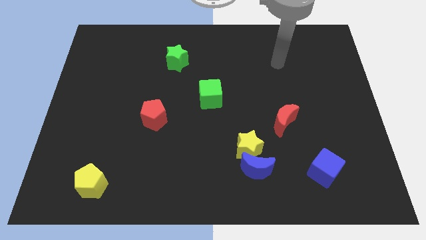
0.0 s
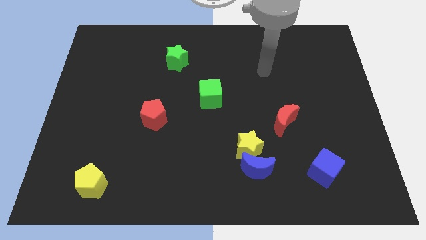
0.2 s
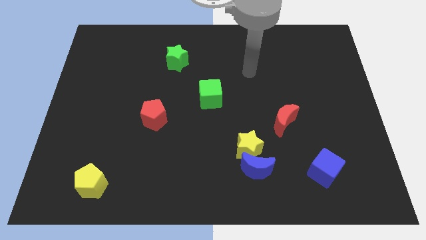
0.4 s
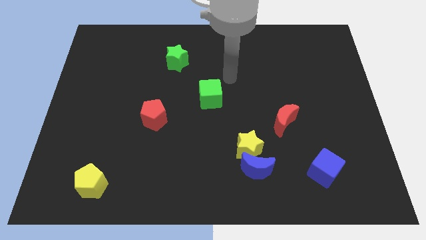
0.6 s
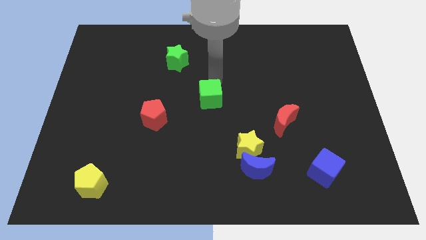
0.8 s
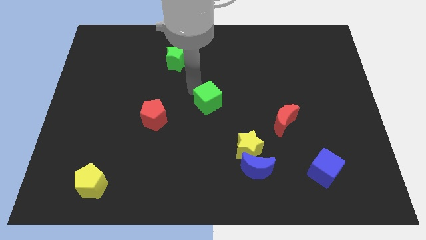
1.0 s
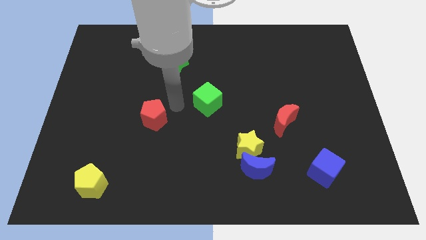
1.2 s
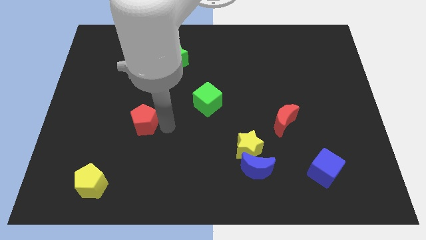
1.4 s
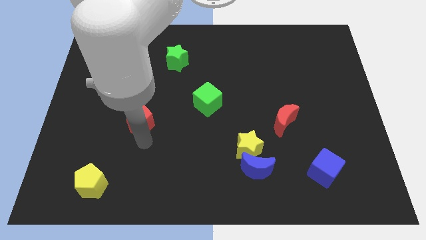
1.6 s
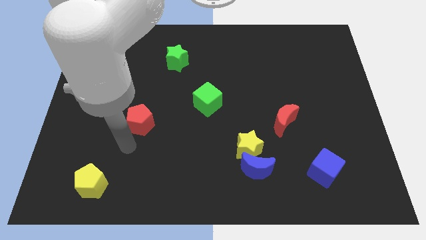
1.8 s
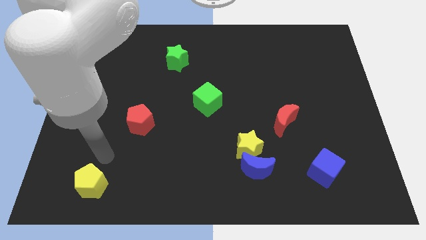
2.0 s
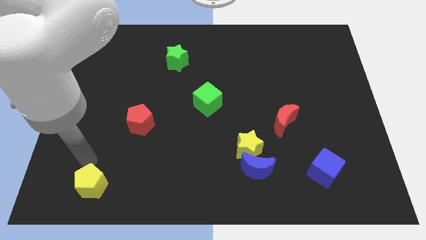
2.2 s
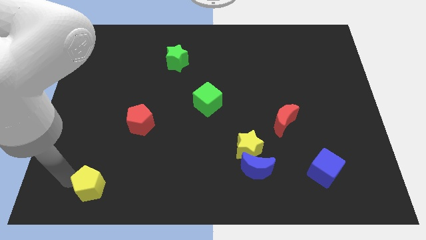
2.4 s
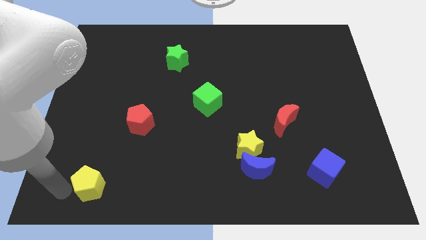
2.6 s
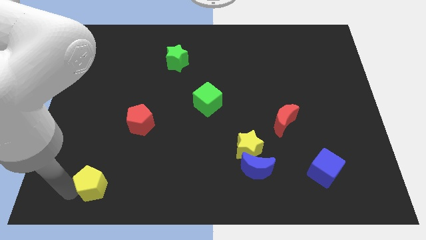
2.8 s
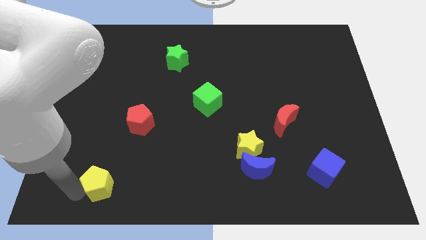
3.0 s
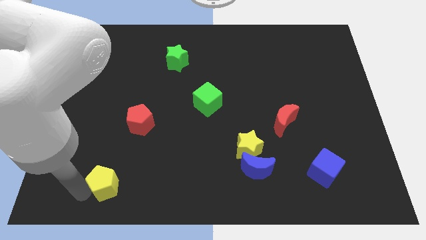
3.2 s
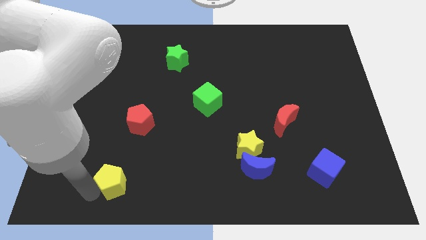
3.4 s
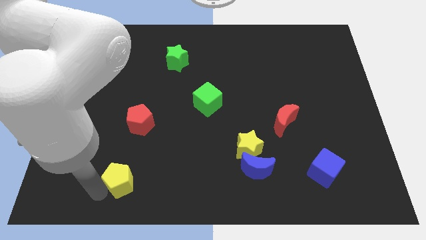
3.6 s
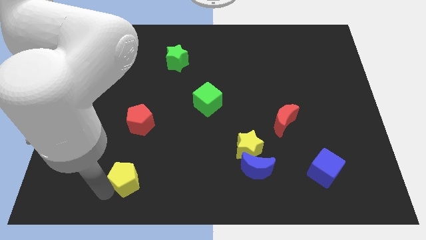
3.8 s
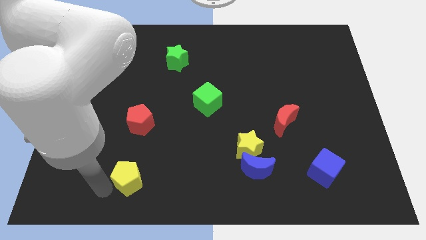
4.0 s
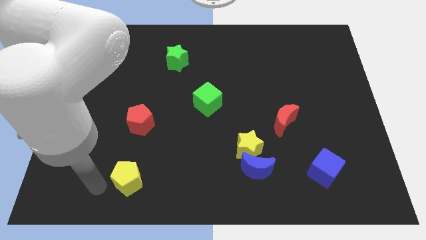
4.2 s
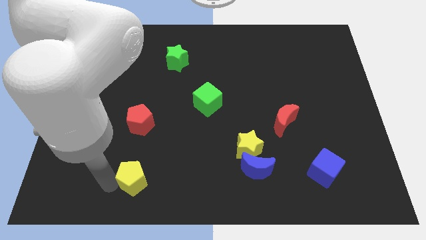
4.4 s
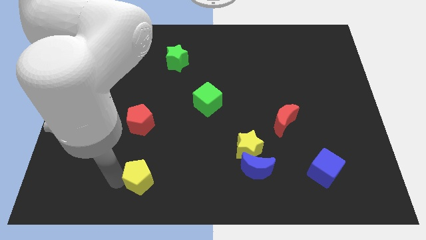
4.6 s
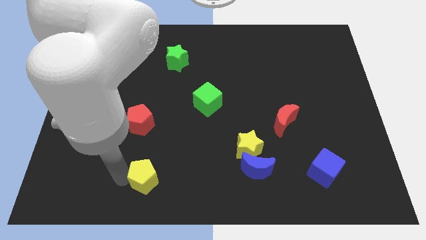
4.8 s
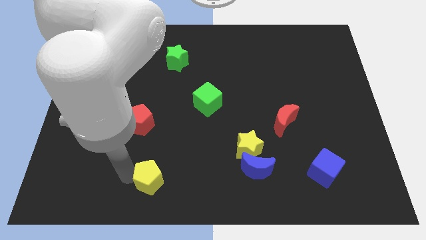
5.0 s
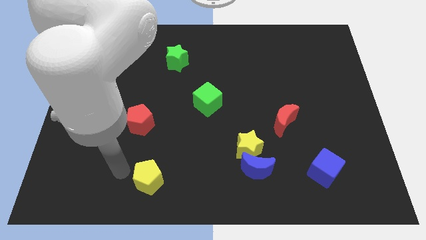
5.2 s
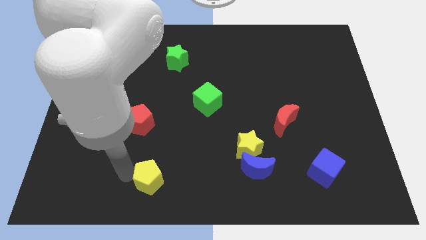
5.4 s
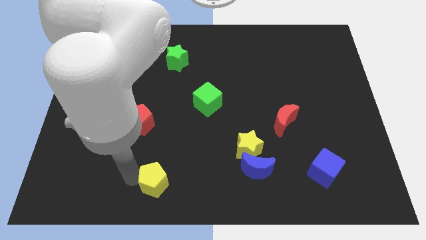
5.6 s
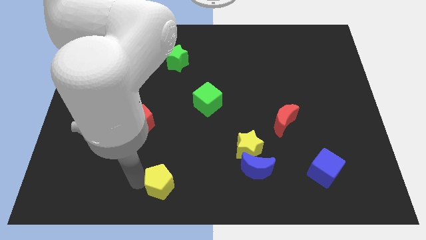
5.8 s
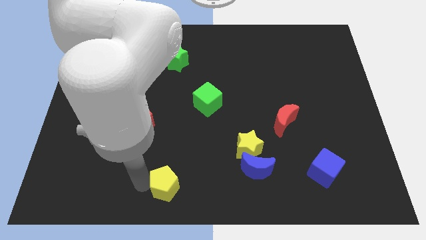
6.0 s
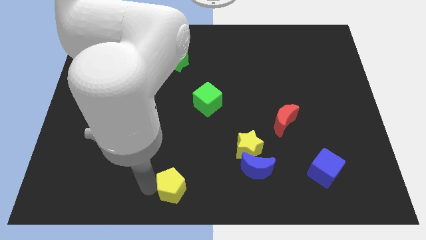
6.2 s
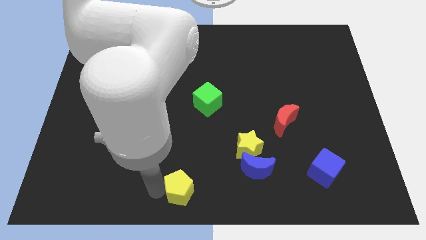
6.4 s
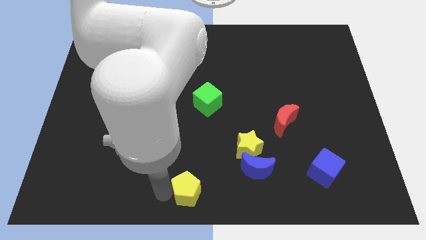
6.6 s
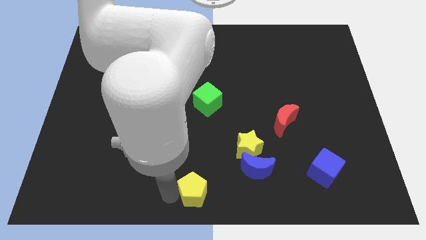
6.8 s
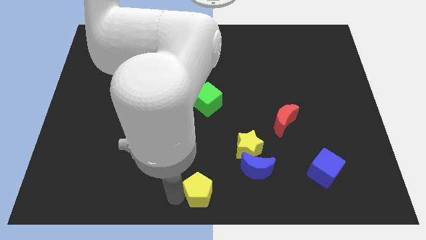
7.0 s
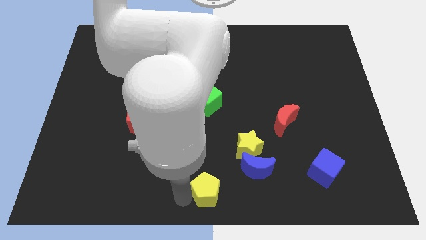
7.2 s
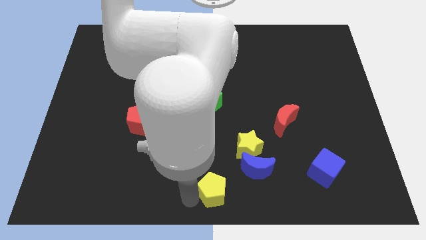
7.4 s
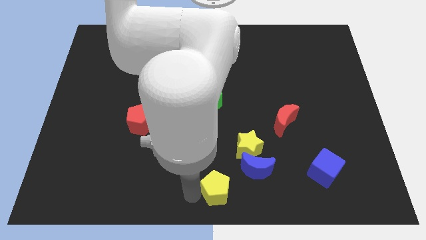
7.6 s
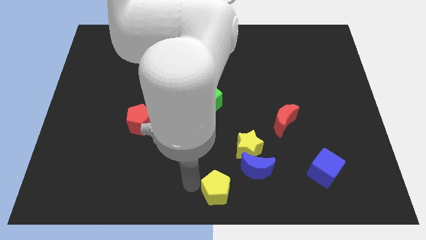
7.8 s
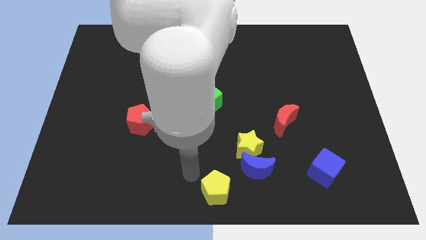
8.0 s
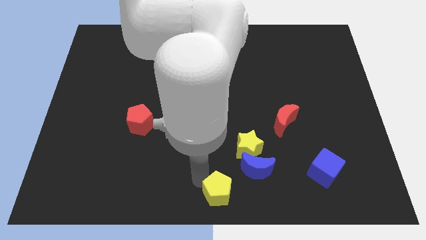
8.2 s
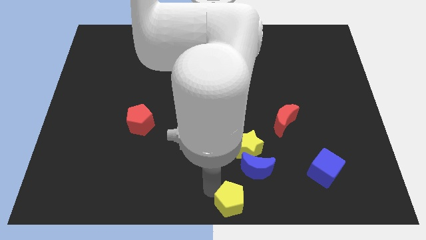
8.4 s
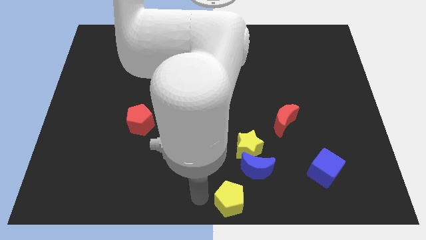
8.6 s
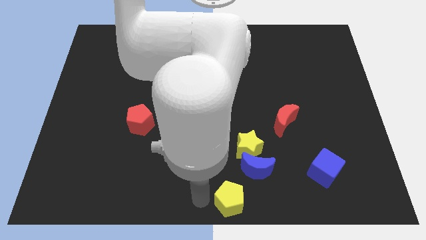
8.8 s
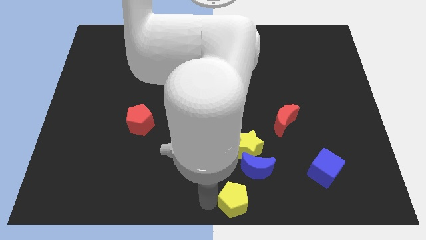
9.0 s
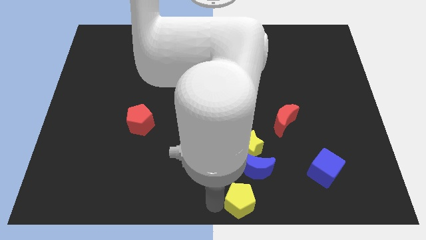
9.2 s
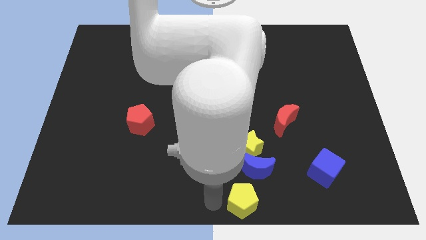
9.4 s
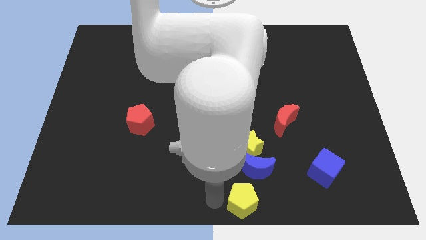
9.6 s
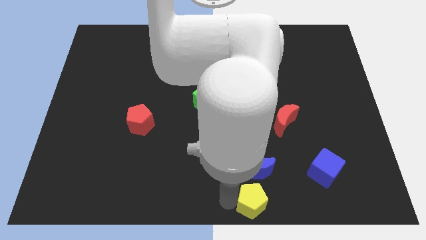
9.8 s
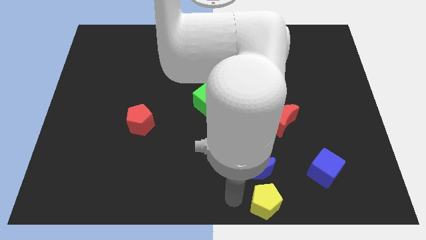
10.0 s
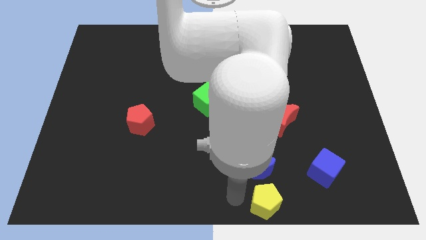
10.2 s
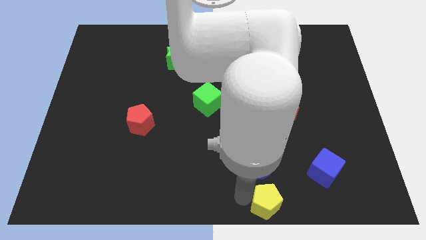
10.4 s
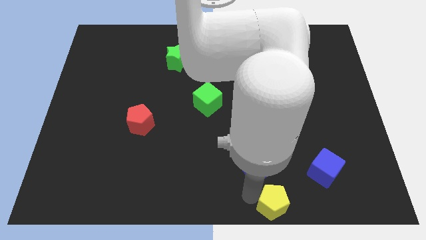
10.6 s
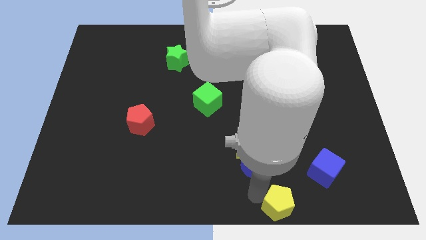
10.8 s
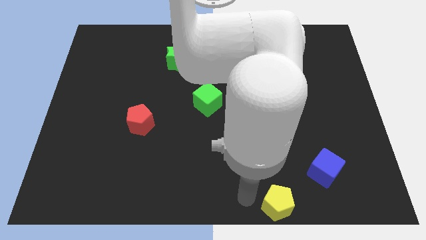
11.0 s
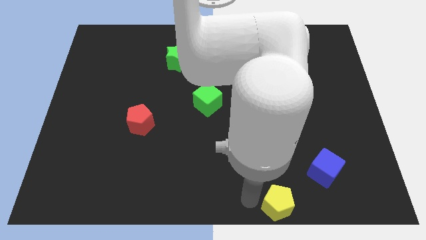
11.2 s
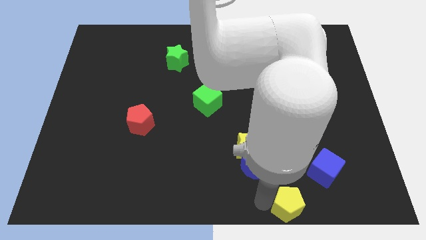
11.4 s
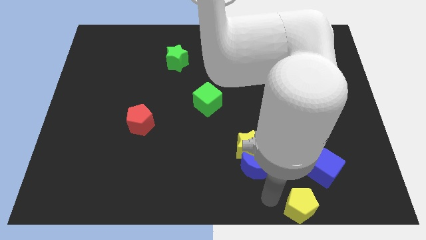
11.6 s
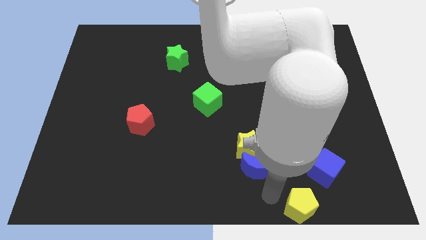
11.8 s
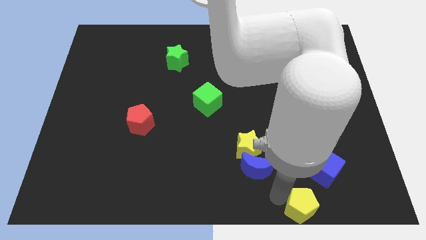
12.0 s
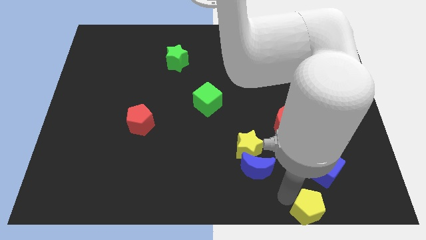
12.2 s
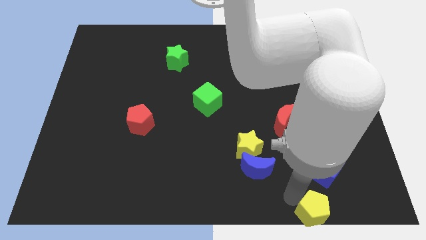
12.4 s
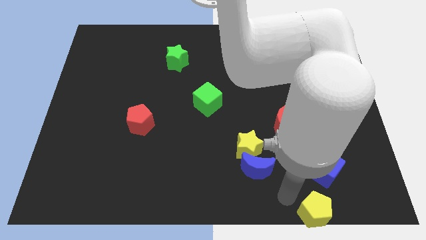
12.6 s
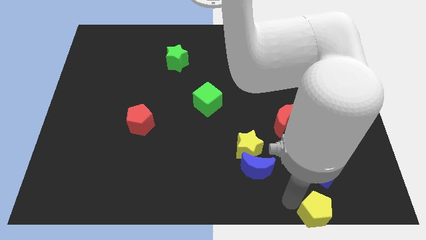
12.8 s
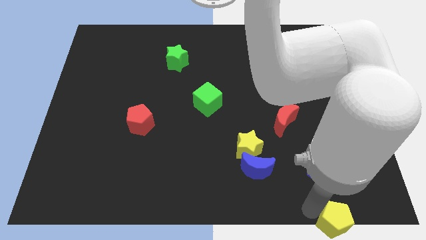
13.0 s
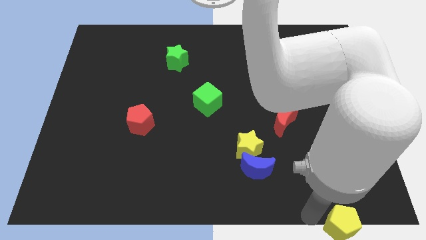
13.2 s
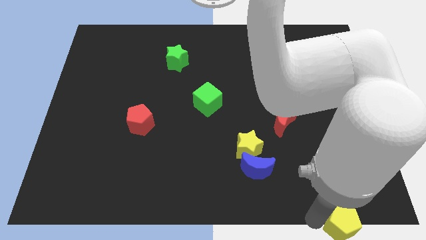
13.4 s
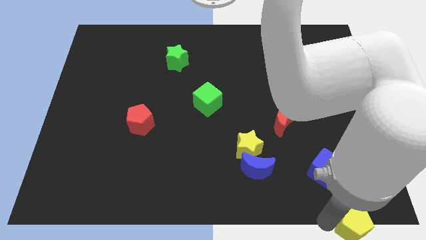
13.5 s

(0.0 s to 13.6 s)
put the yellow pentagon to the bottom right of the board
